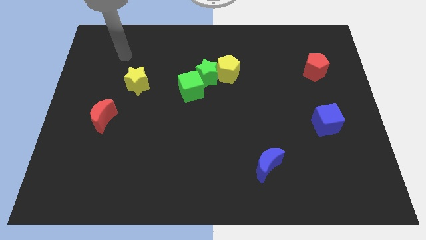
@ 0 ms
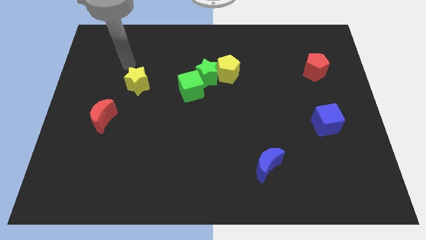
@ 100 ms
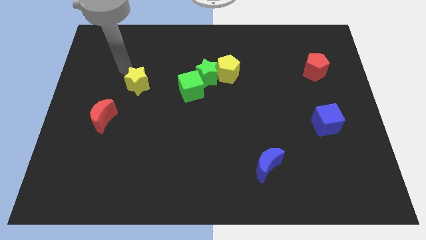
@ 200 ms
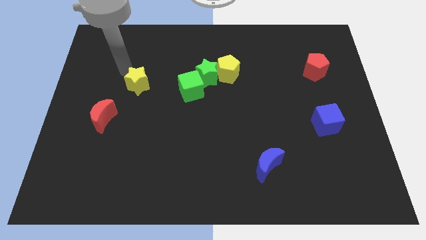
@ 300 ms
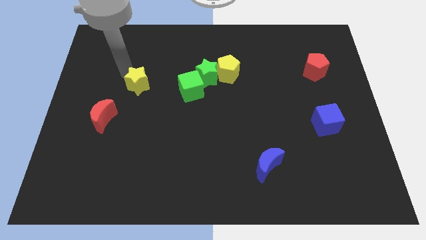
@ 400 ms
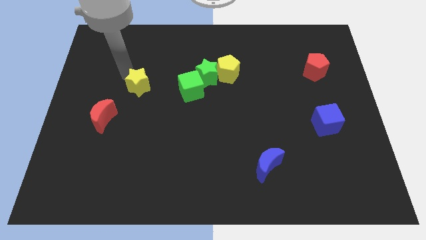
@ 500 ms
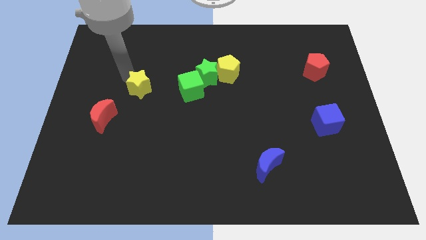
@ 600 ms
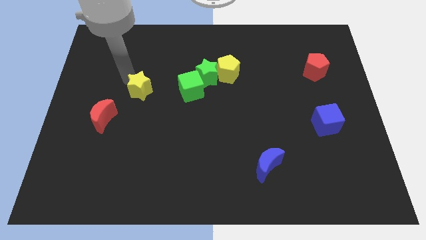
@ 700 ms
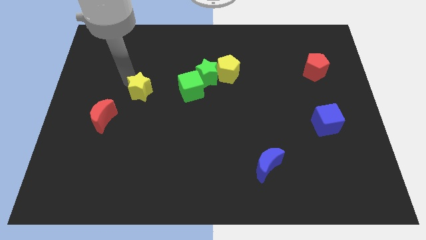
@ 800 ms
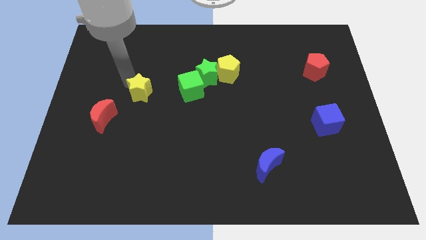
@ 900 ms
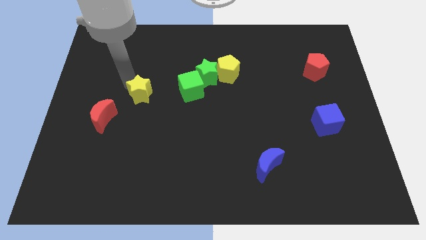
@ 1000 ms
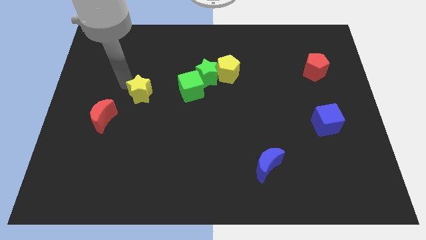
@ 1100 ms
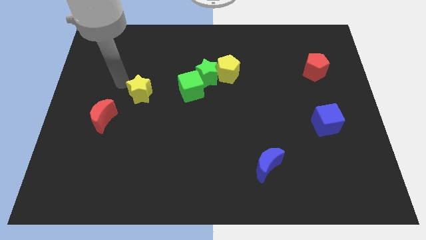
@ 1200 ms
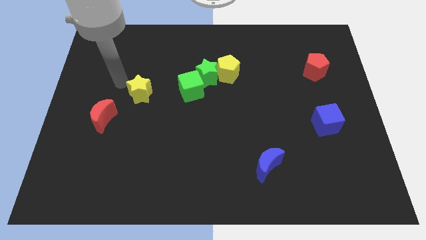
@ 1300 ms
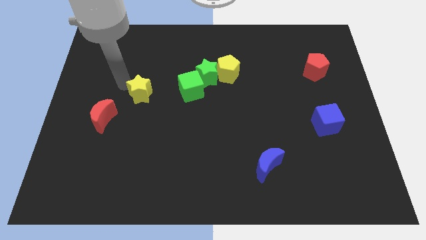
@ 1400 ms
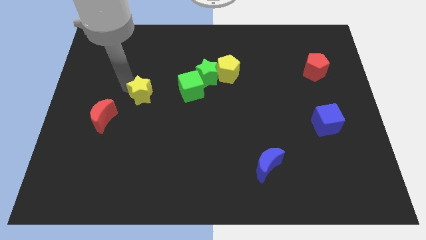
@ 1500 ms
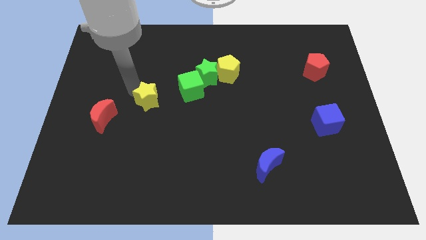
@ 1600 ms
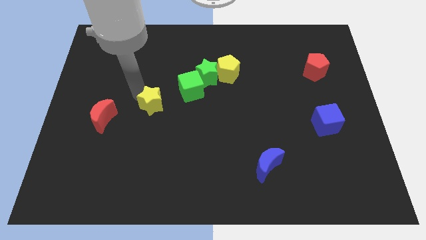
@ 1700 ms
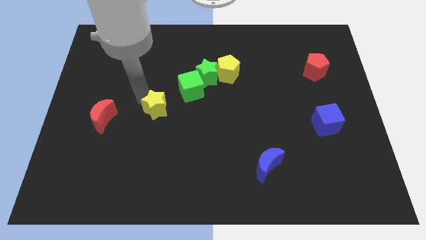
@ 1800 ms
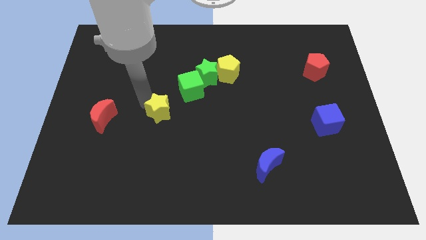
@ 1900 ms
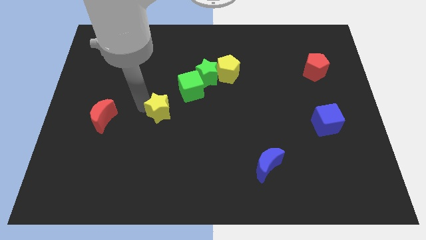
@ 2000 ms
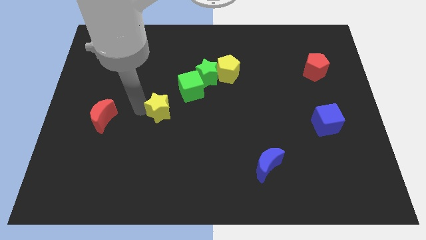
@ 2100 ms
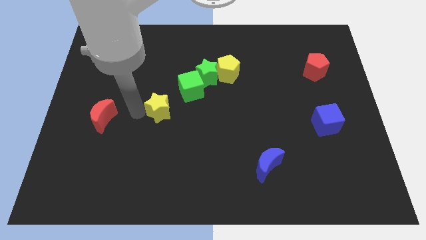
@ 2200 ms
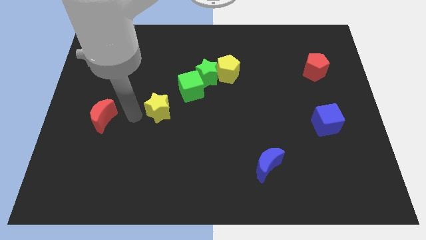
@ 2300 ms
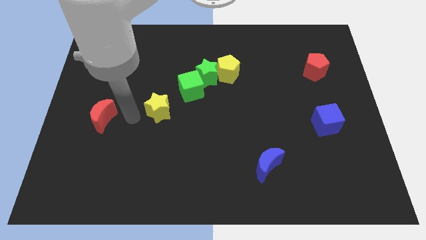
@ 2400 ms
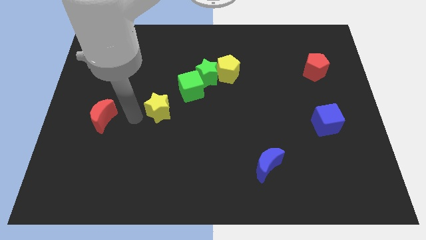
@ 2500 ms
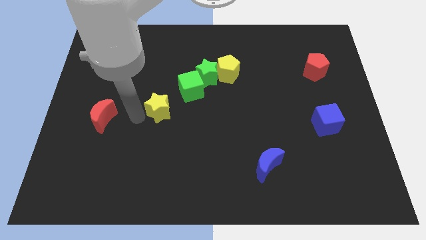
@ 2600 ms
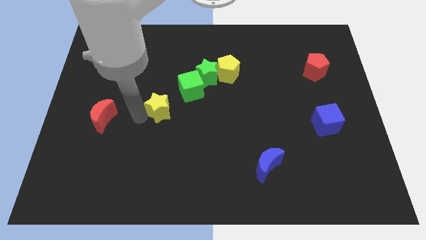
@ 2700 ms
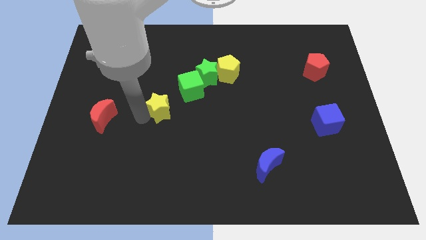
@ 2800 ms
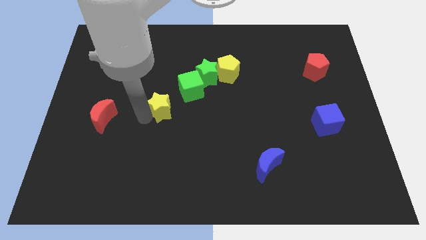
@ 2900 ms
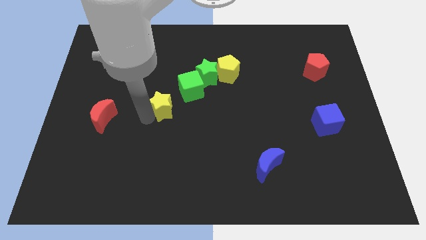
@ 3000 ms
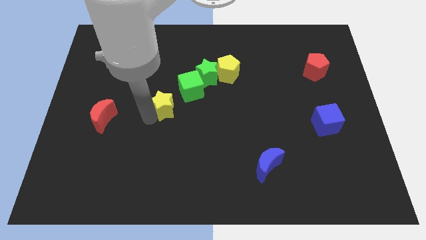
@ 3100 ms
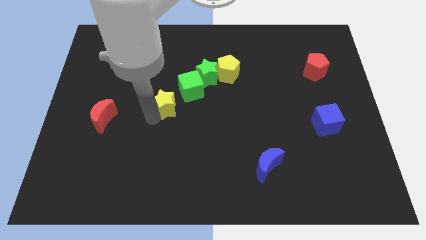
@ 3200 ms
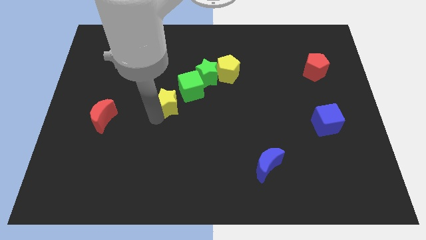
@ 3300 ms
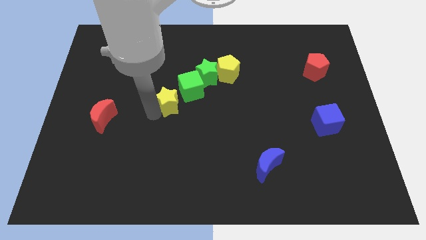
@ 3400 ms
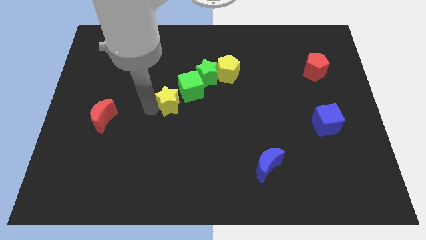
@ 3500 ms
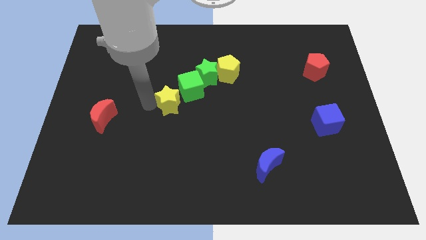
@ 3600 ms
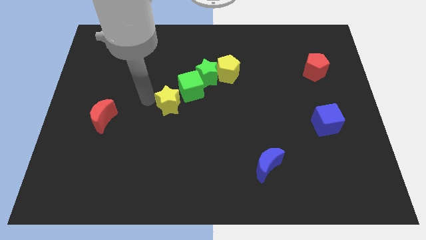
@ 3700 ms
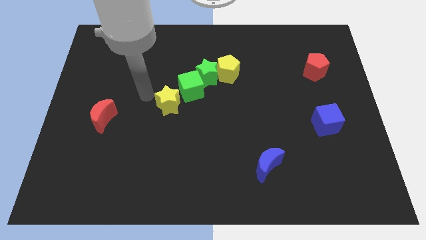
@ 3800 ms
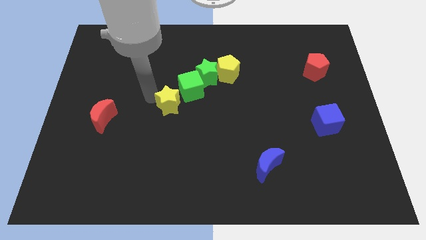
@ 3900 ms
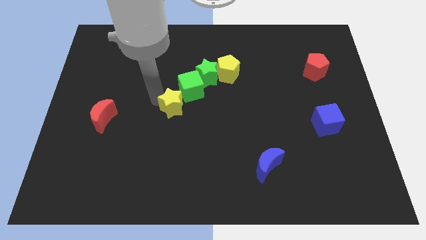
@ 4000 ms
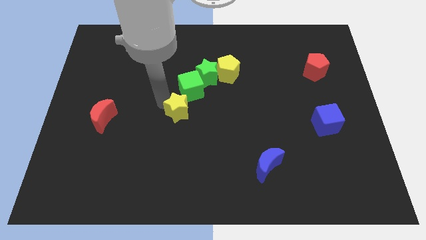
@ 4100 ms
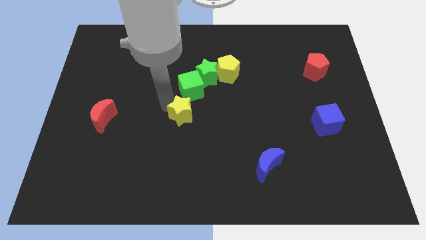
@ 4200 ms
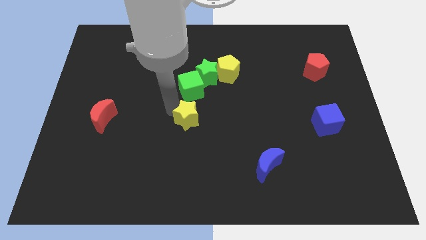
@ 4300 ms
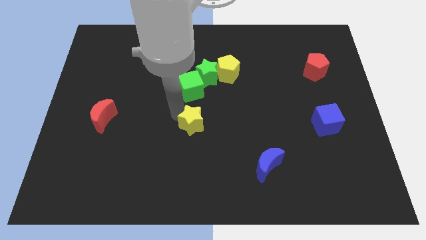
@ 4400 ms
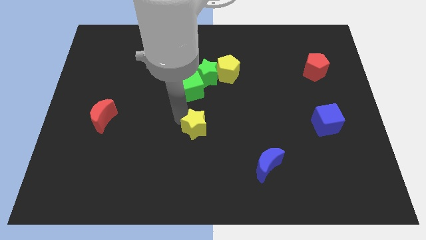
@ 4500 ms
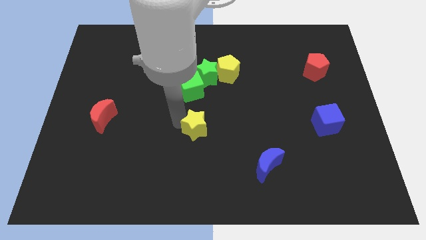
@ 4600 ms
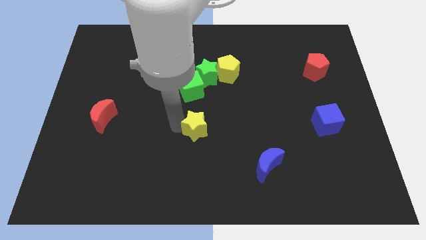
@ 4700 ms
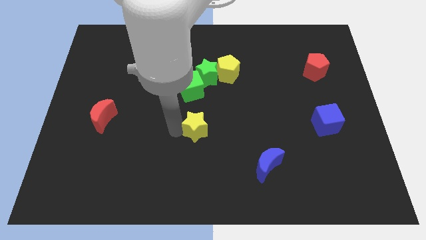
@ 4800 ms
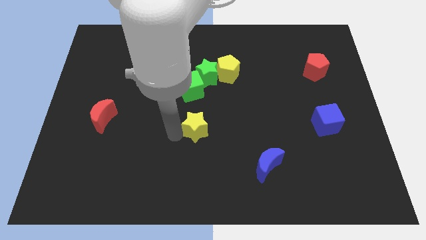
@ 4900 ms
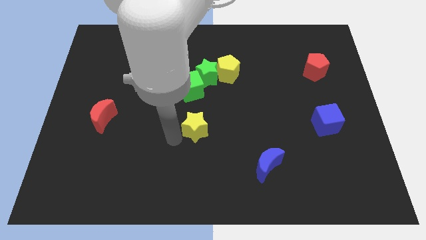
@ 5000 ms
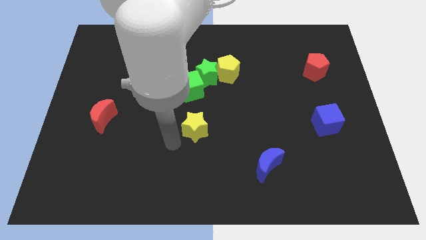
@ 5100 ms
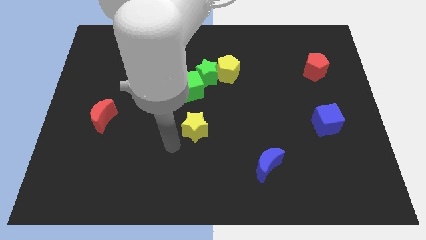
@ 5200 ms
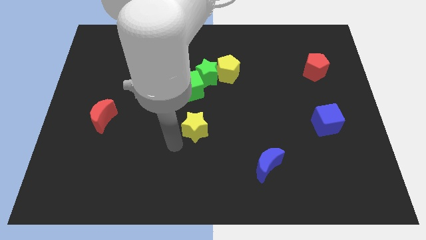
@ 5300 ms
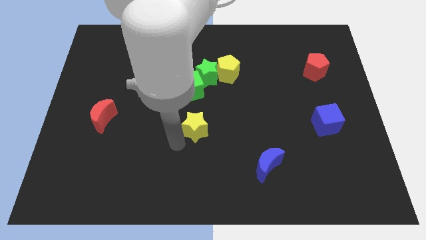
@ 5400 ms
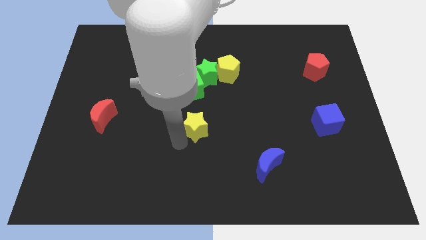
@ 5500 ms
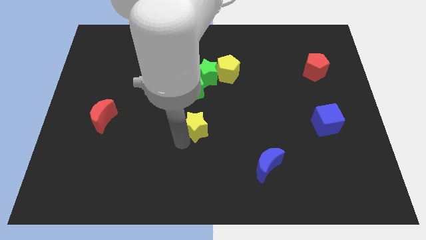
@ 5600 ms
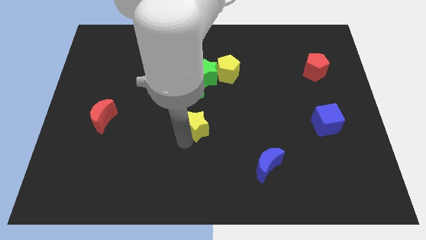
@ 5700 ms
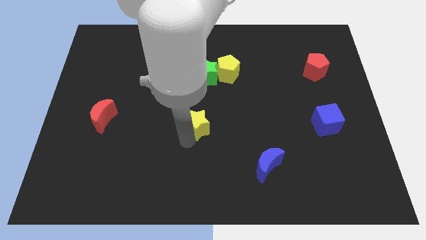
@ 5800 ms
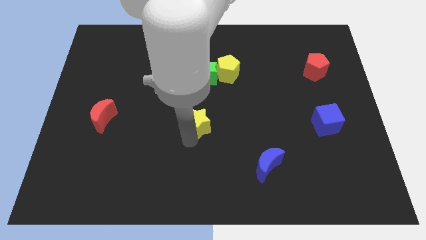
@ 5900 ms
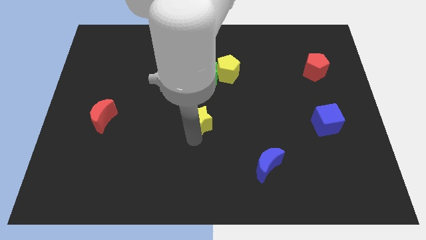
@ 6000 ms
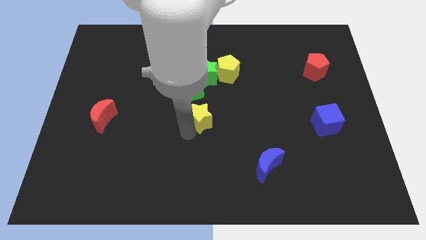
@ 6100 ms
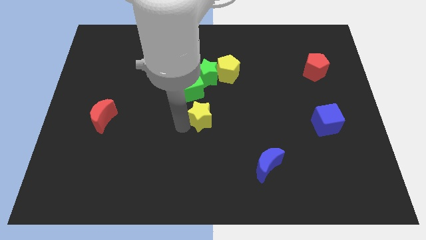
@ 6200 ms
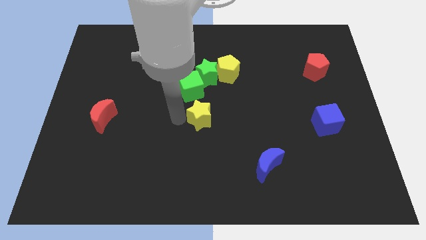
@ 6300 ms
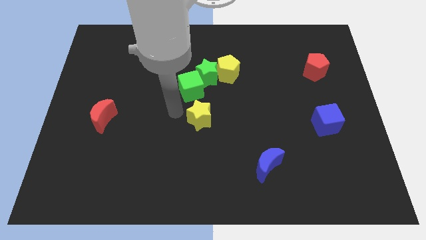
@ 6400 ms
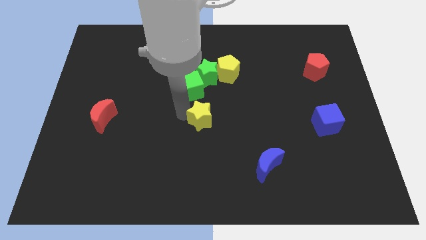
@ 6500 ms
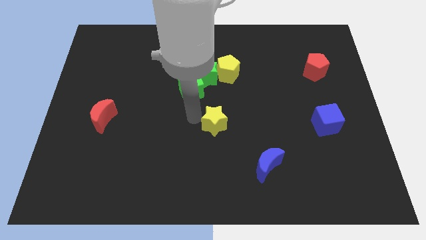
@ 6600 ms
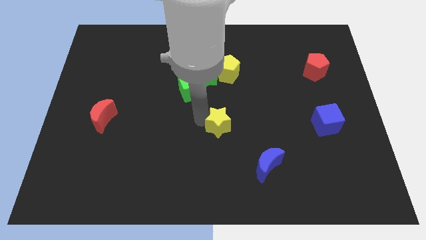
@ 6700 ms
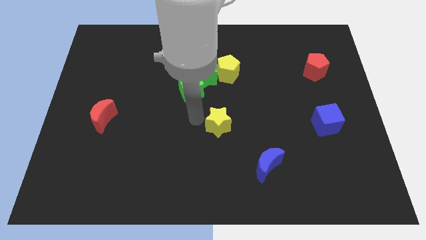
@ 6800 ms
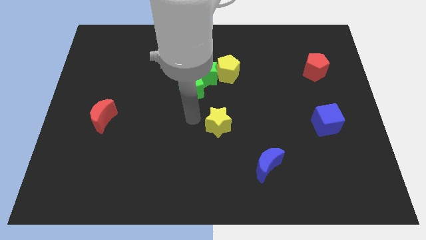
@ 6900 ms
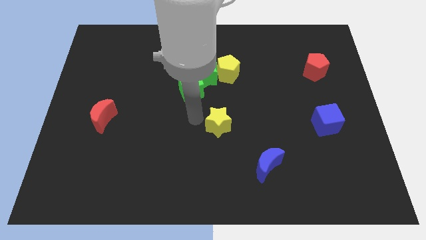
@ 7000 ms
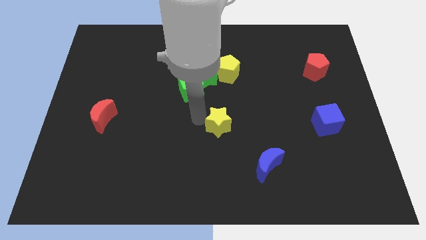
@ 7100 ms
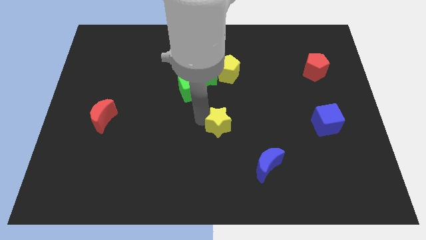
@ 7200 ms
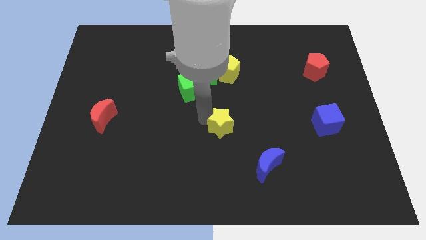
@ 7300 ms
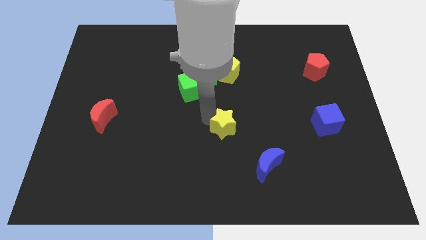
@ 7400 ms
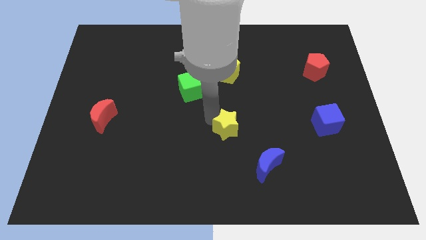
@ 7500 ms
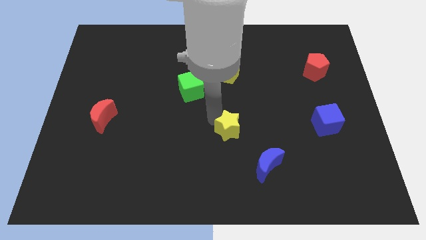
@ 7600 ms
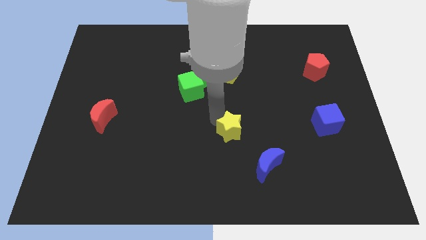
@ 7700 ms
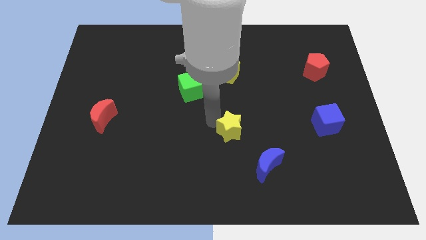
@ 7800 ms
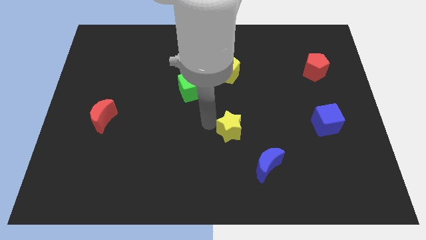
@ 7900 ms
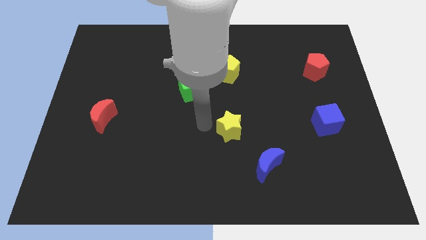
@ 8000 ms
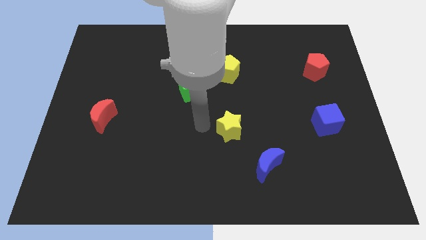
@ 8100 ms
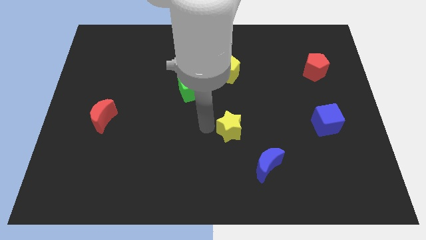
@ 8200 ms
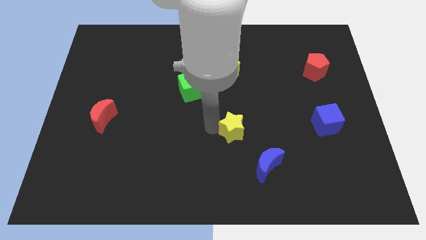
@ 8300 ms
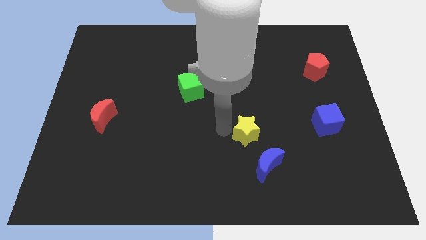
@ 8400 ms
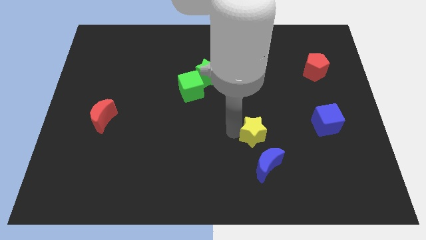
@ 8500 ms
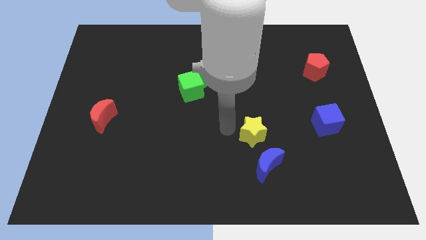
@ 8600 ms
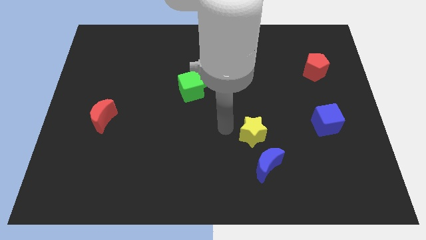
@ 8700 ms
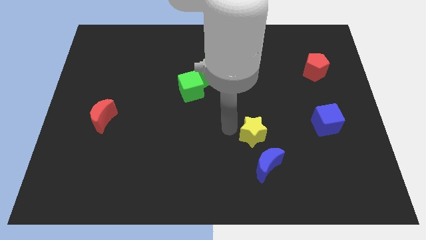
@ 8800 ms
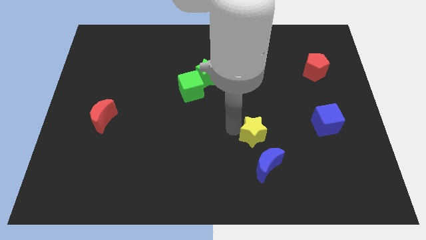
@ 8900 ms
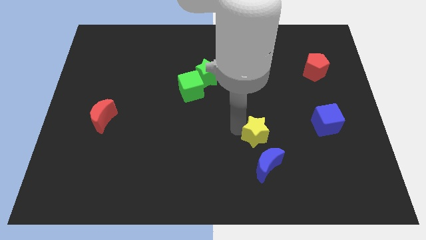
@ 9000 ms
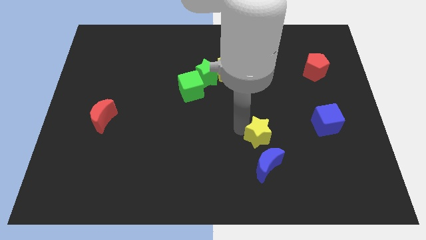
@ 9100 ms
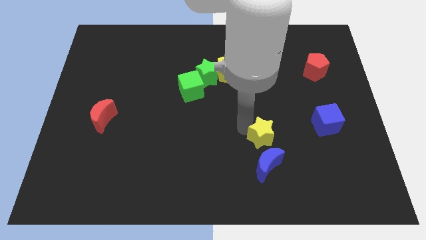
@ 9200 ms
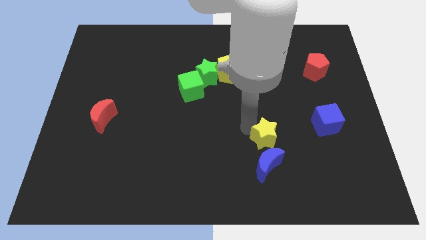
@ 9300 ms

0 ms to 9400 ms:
push the yellow star to the top right side of the blue moon
